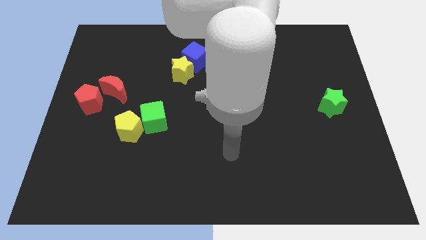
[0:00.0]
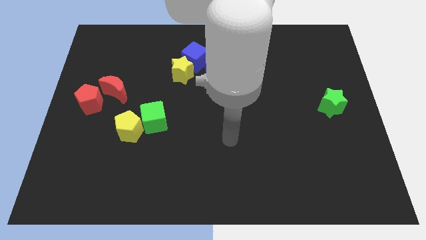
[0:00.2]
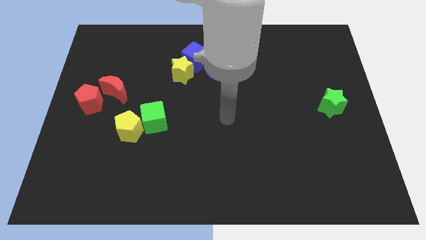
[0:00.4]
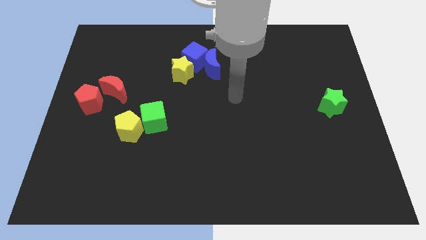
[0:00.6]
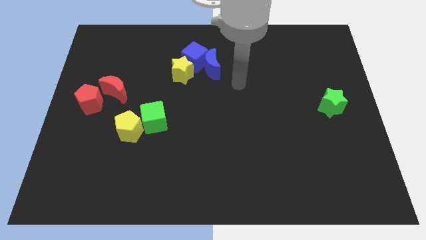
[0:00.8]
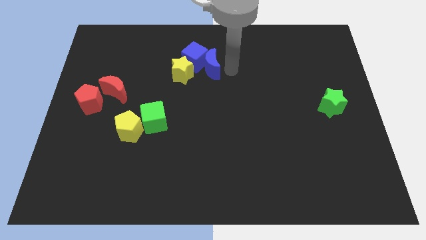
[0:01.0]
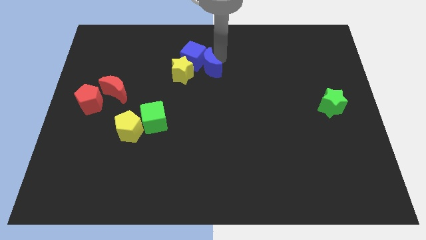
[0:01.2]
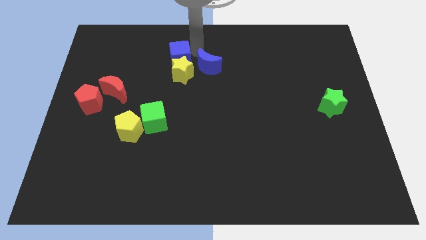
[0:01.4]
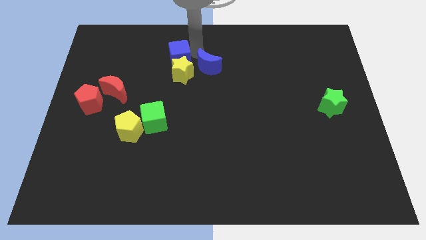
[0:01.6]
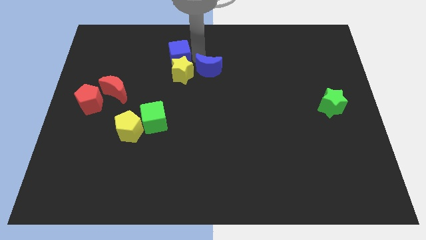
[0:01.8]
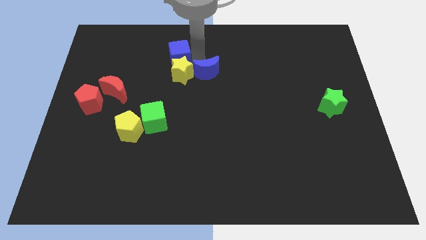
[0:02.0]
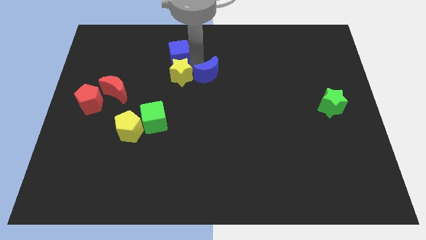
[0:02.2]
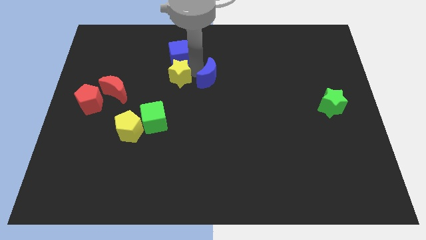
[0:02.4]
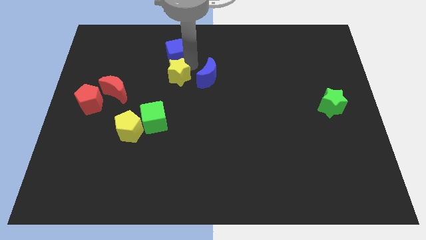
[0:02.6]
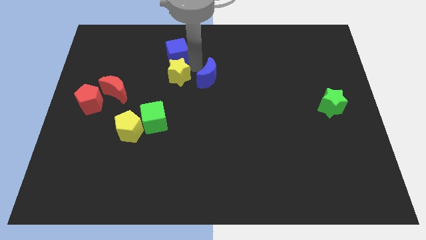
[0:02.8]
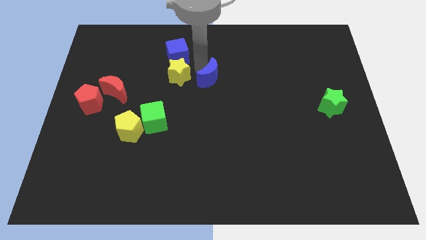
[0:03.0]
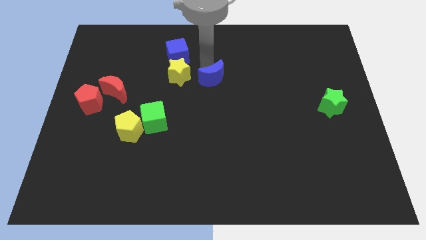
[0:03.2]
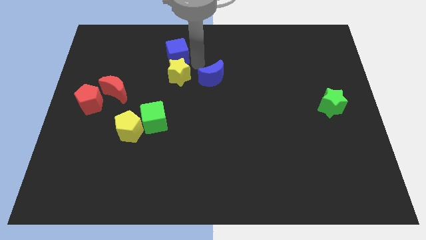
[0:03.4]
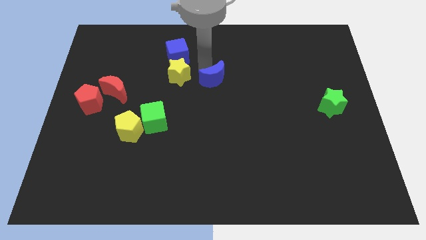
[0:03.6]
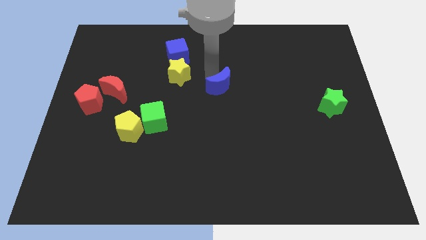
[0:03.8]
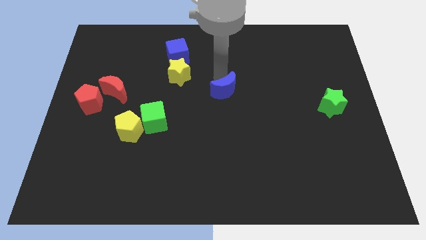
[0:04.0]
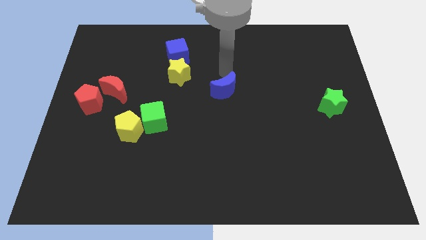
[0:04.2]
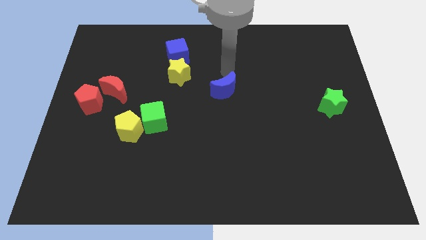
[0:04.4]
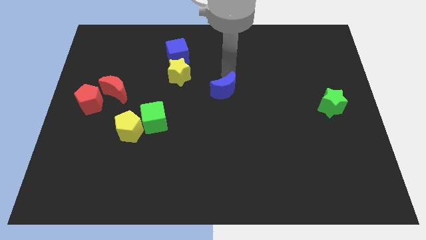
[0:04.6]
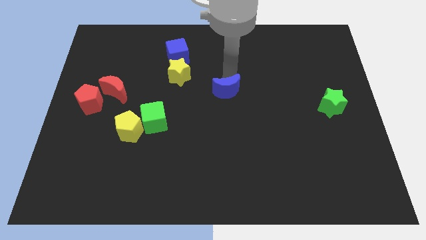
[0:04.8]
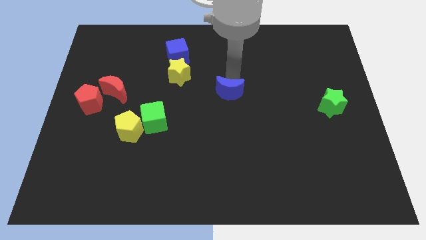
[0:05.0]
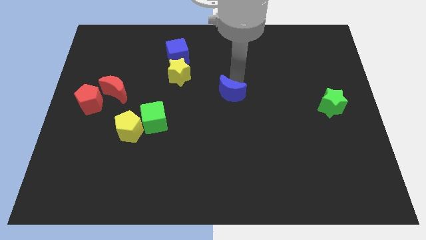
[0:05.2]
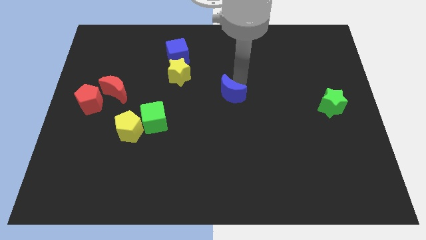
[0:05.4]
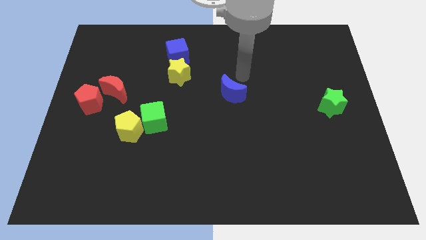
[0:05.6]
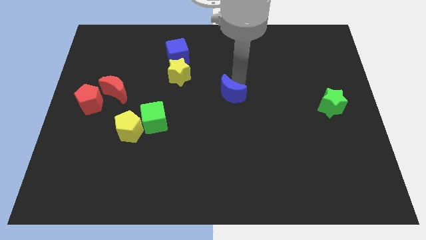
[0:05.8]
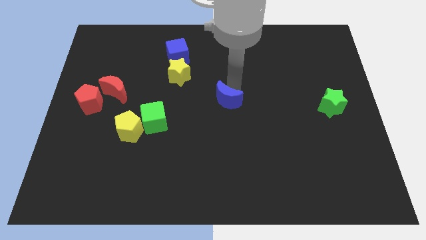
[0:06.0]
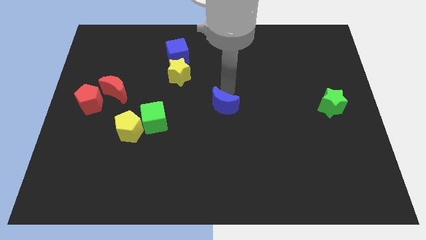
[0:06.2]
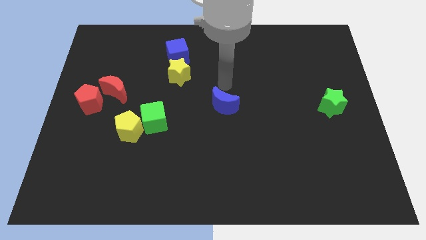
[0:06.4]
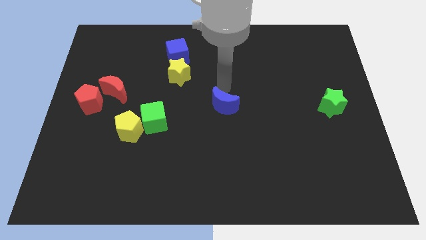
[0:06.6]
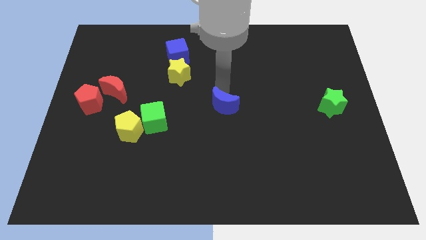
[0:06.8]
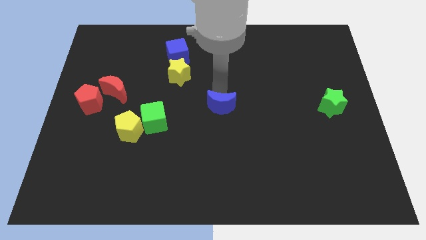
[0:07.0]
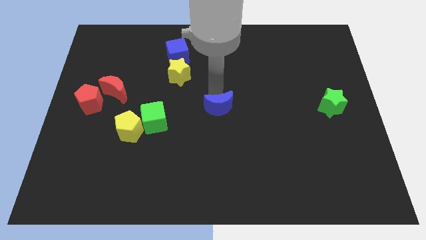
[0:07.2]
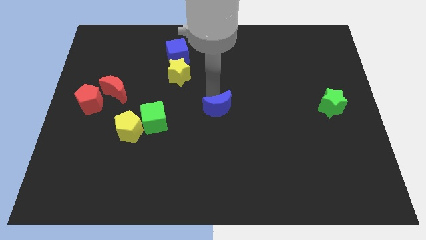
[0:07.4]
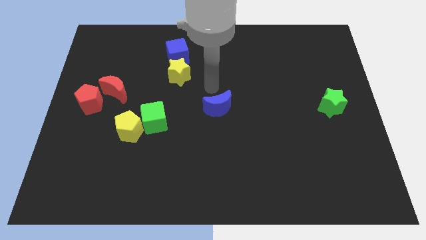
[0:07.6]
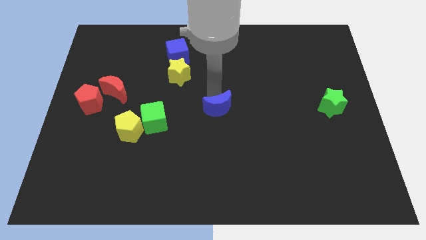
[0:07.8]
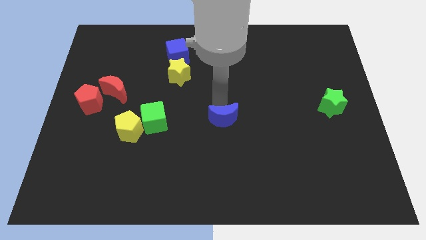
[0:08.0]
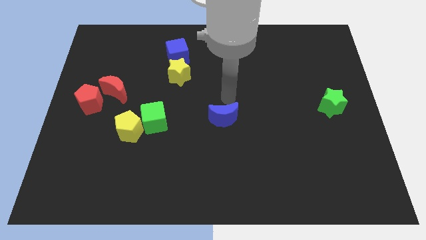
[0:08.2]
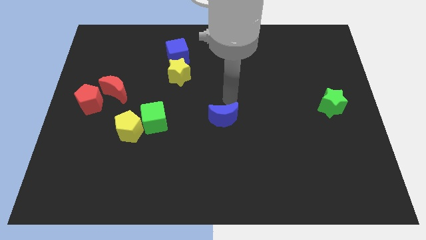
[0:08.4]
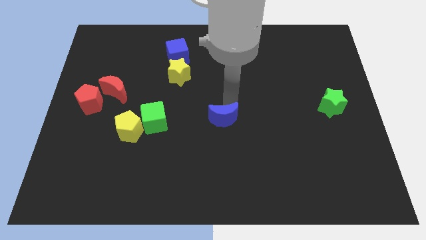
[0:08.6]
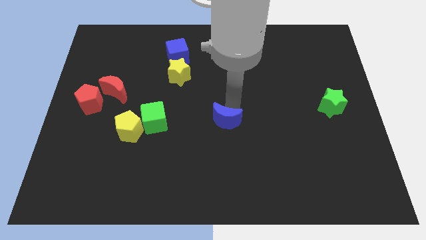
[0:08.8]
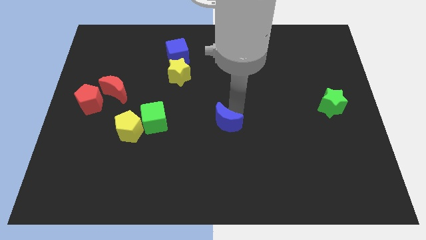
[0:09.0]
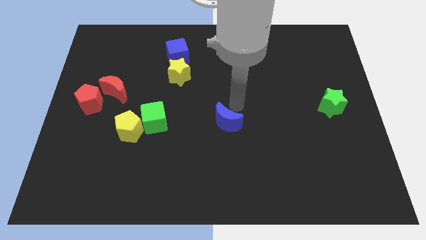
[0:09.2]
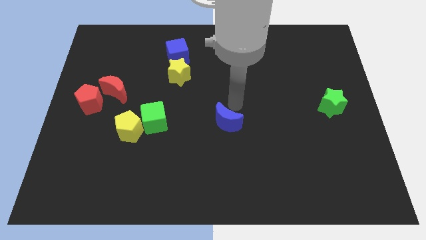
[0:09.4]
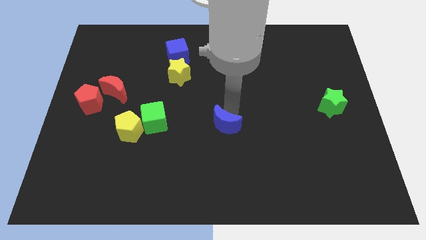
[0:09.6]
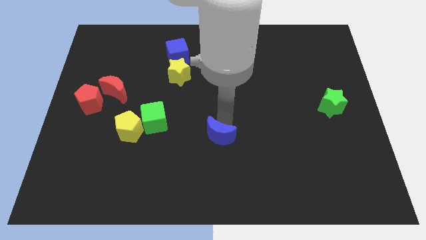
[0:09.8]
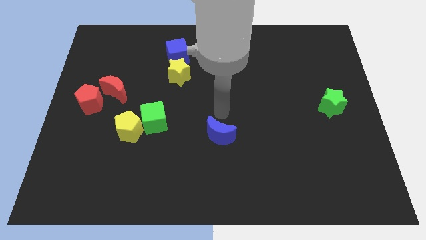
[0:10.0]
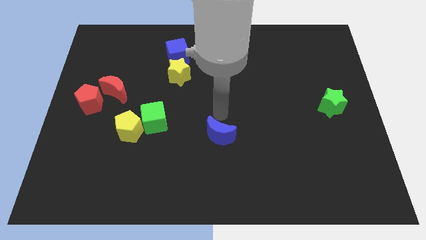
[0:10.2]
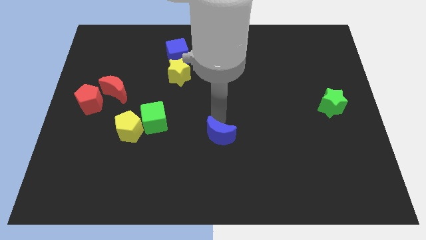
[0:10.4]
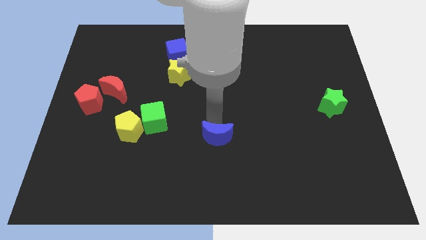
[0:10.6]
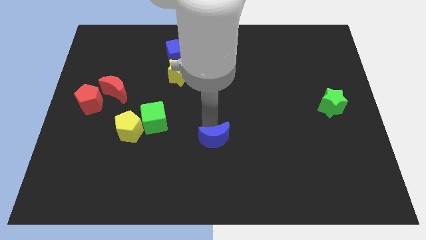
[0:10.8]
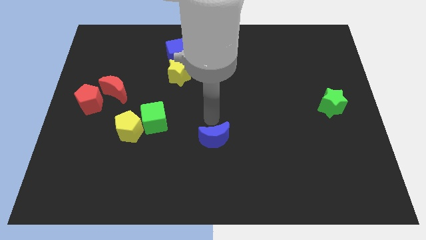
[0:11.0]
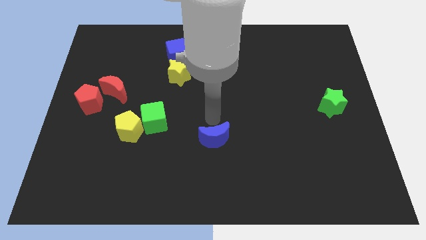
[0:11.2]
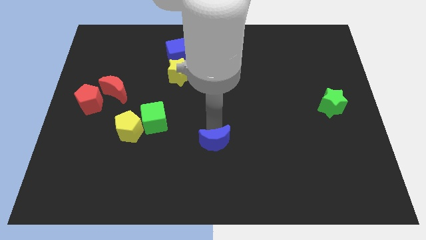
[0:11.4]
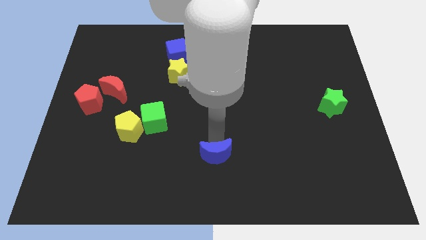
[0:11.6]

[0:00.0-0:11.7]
move the blue moon to the bottom side

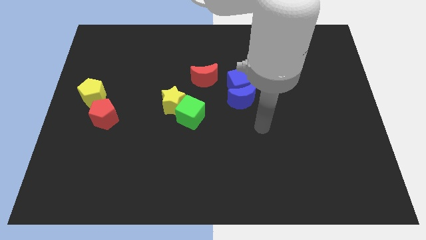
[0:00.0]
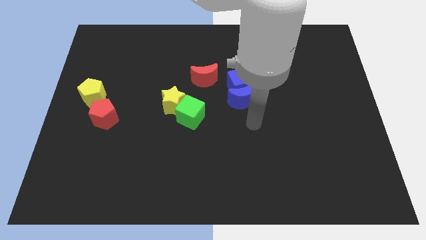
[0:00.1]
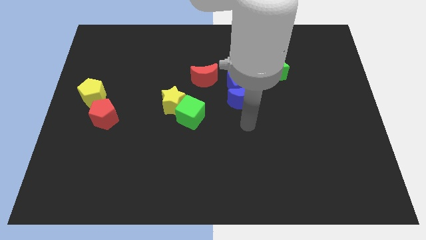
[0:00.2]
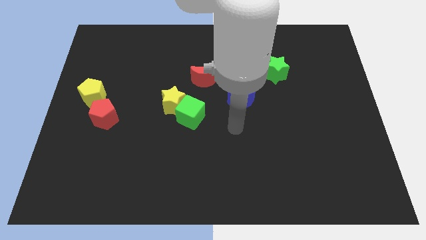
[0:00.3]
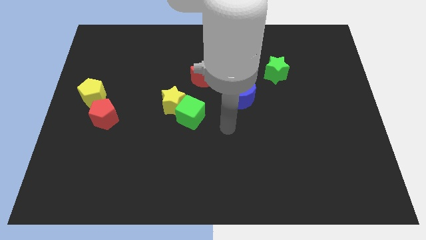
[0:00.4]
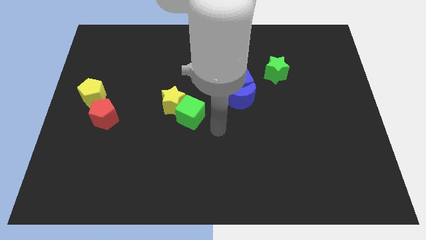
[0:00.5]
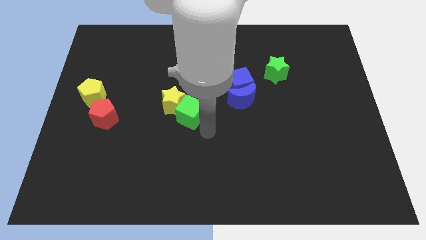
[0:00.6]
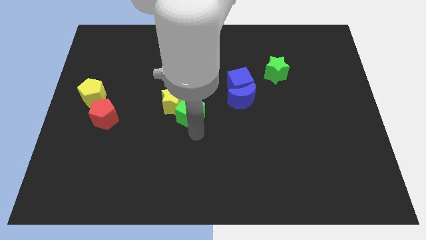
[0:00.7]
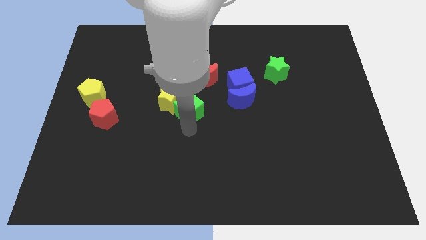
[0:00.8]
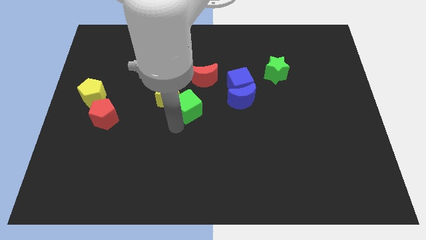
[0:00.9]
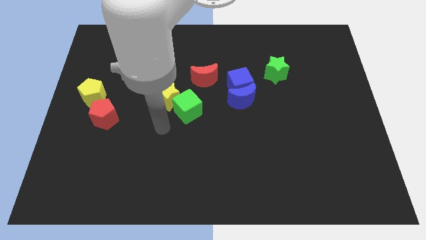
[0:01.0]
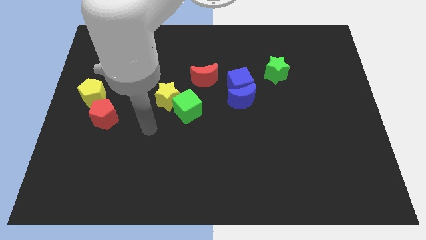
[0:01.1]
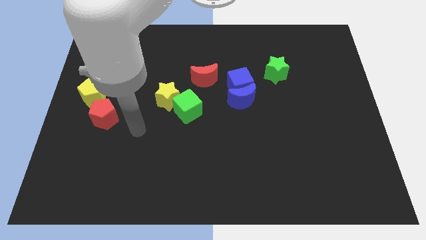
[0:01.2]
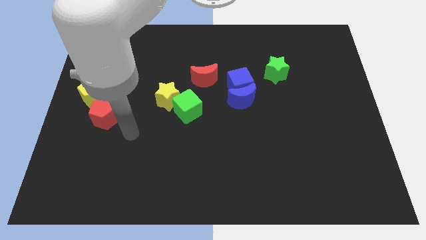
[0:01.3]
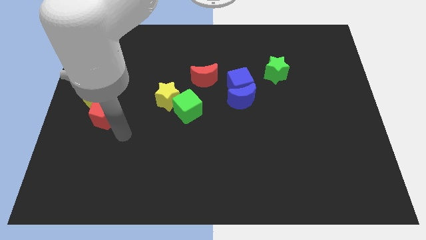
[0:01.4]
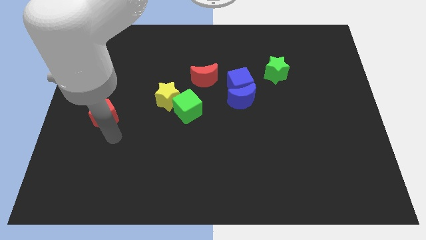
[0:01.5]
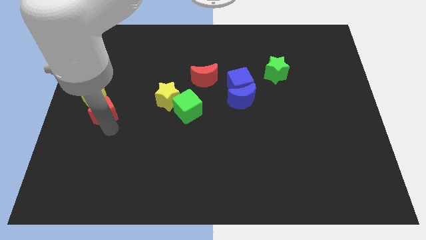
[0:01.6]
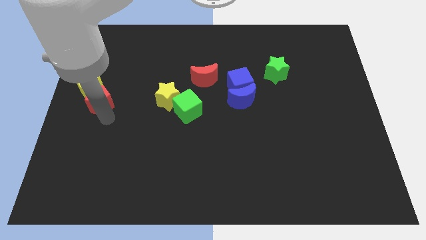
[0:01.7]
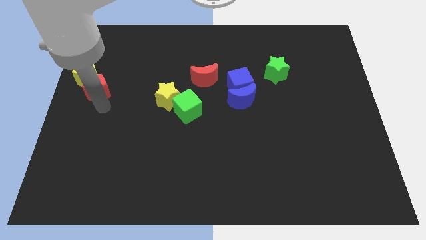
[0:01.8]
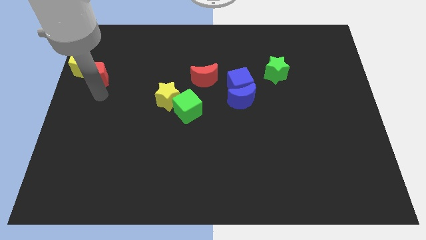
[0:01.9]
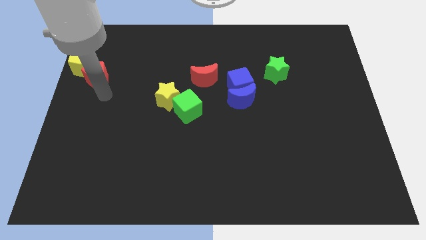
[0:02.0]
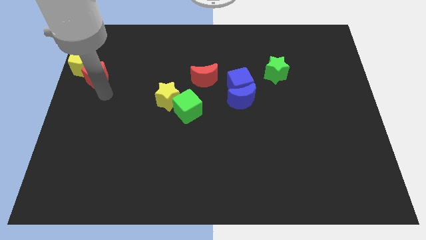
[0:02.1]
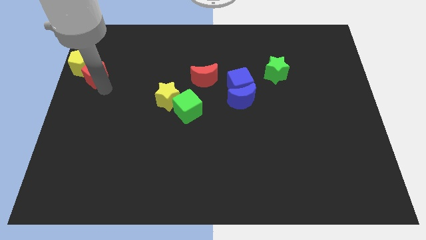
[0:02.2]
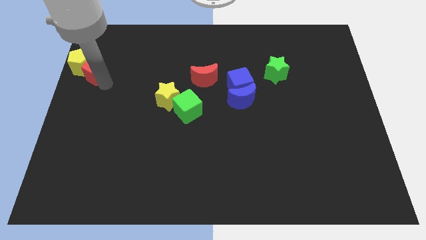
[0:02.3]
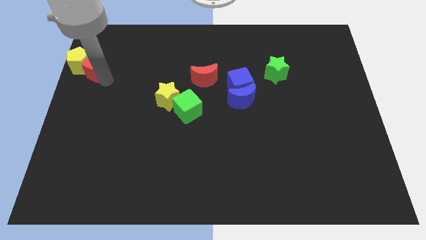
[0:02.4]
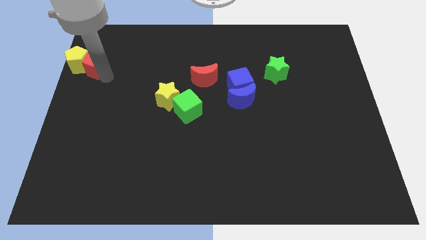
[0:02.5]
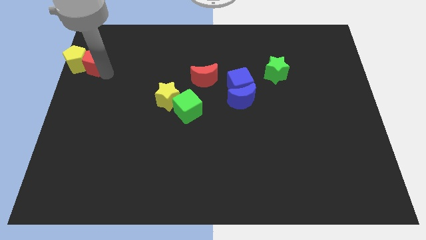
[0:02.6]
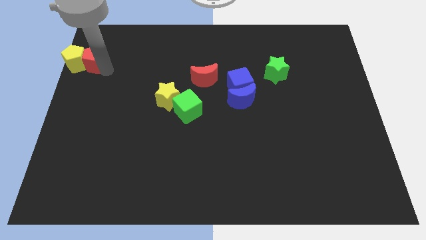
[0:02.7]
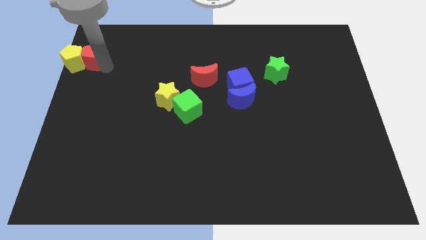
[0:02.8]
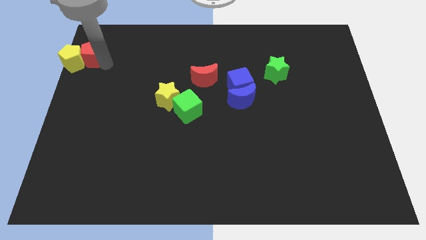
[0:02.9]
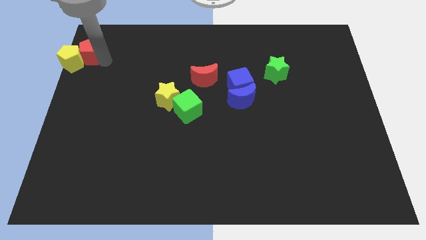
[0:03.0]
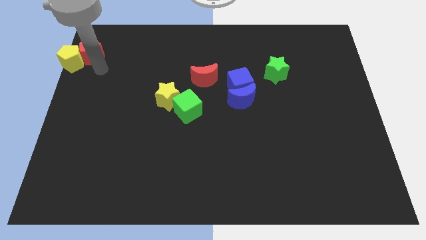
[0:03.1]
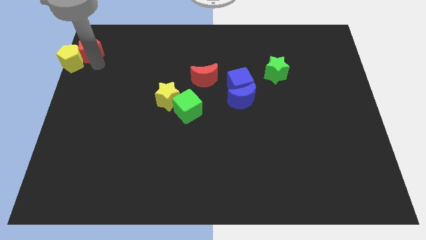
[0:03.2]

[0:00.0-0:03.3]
push the red pentagon to the top left
